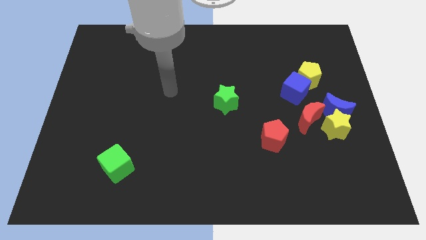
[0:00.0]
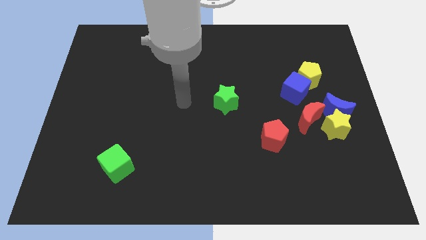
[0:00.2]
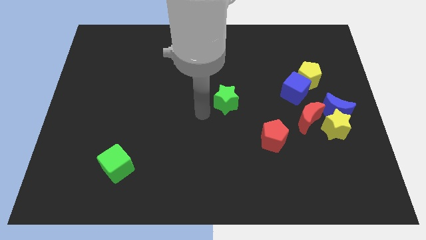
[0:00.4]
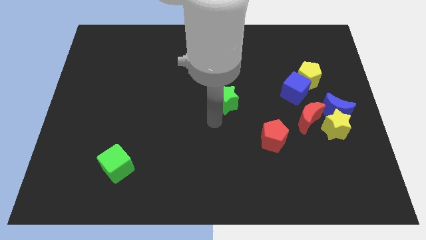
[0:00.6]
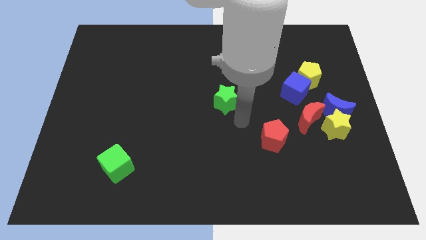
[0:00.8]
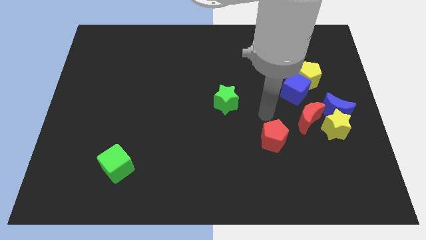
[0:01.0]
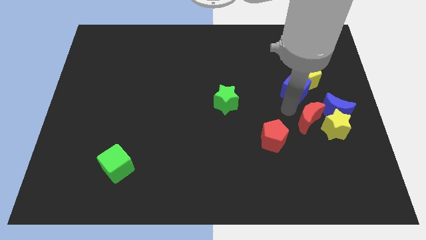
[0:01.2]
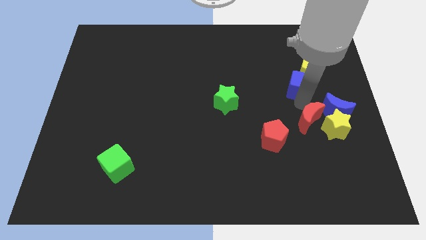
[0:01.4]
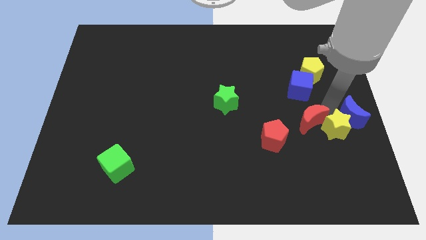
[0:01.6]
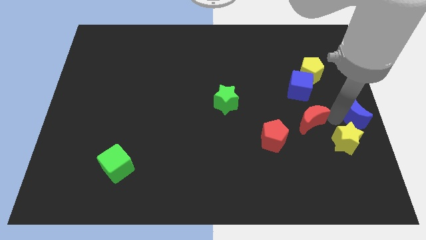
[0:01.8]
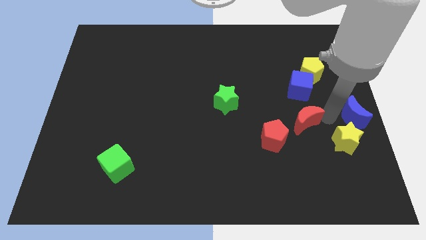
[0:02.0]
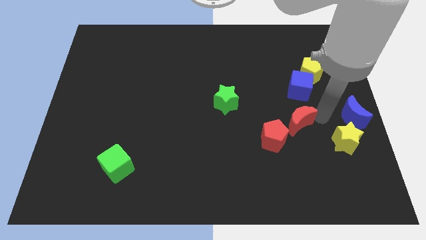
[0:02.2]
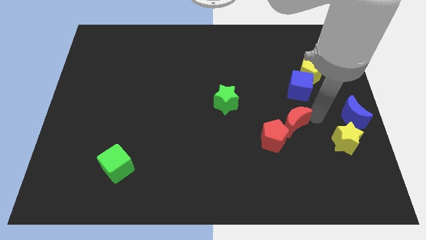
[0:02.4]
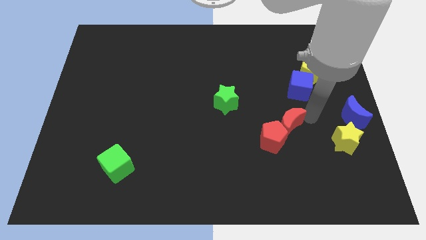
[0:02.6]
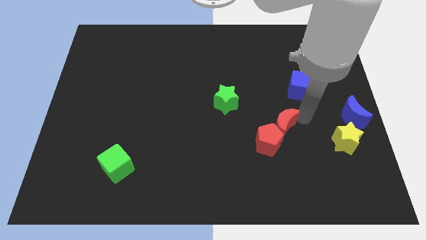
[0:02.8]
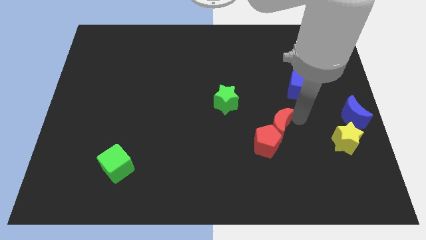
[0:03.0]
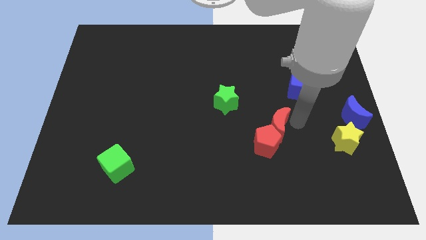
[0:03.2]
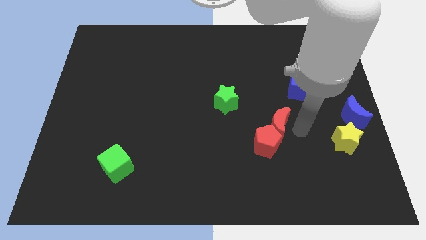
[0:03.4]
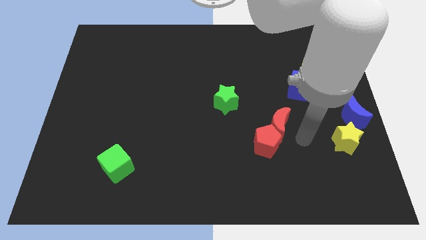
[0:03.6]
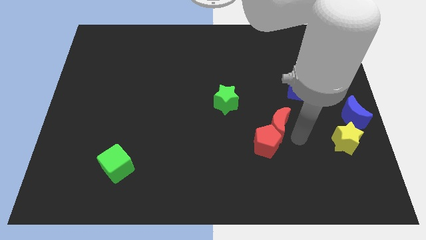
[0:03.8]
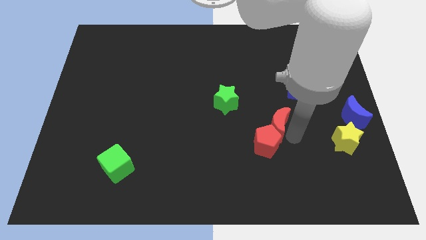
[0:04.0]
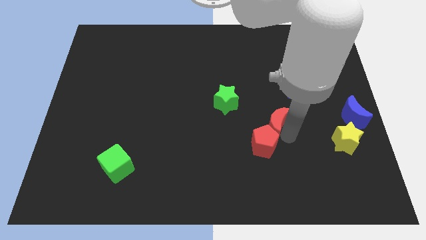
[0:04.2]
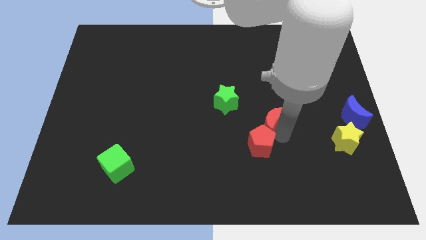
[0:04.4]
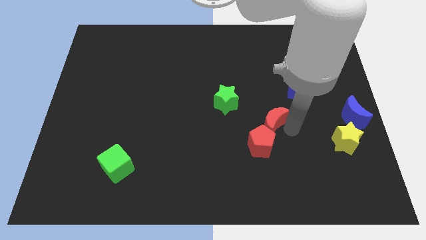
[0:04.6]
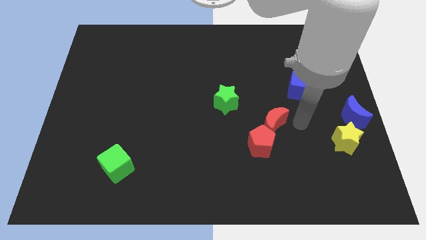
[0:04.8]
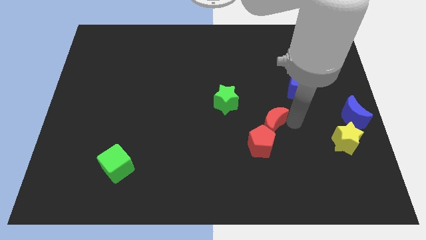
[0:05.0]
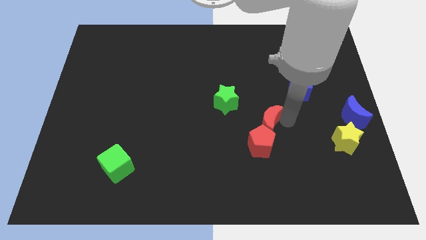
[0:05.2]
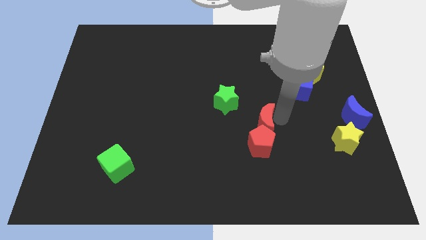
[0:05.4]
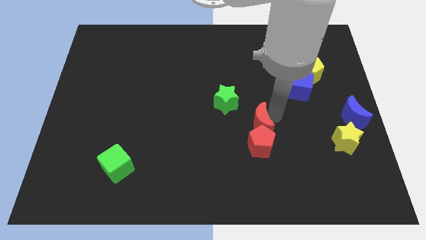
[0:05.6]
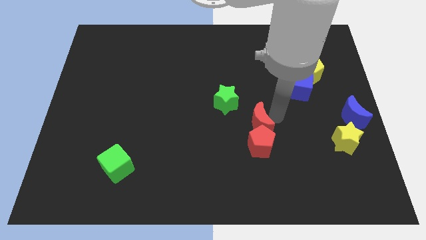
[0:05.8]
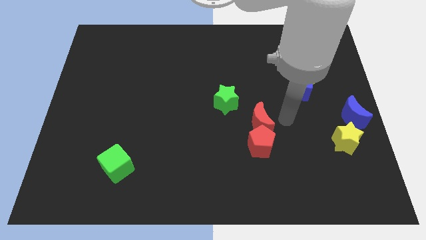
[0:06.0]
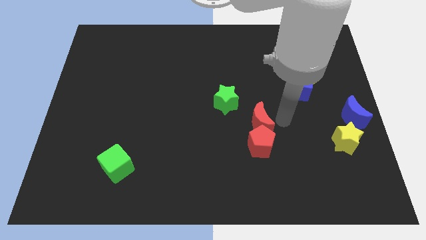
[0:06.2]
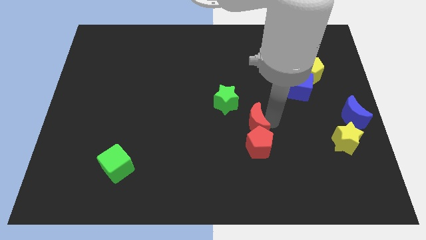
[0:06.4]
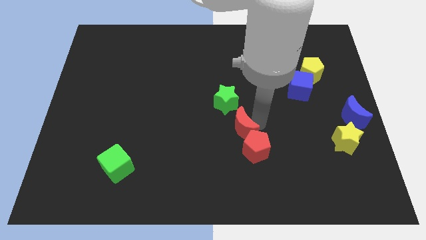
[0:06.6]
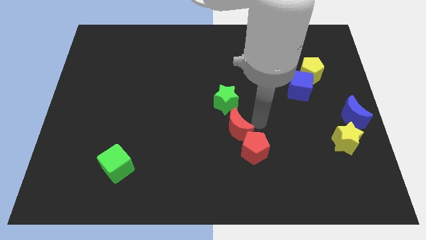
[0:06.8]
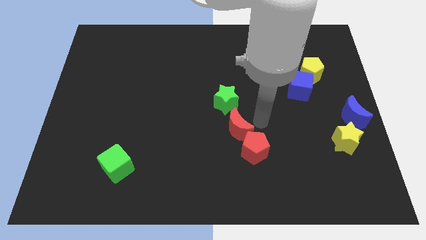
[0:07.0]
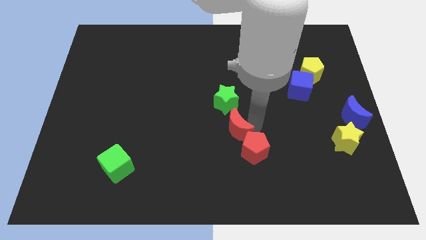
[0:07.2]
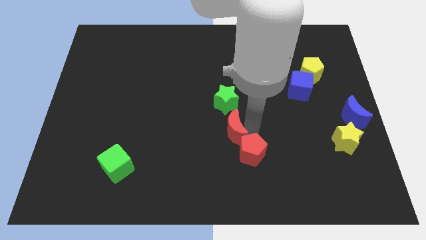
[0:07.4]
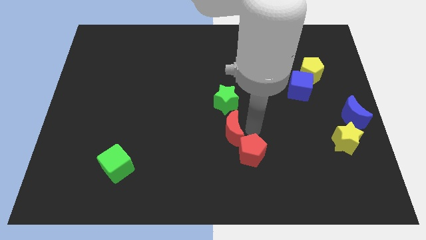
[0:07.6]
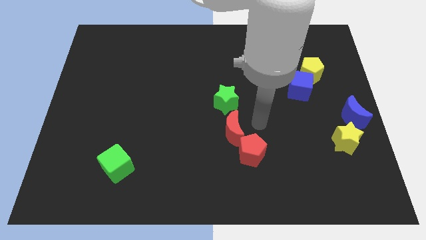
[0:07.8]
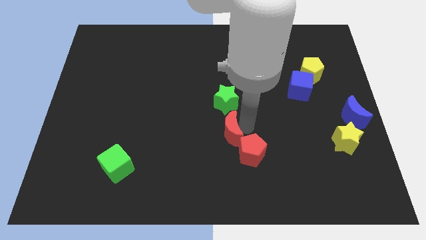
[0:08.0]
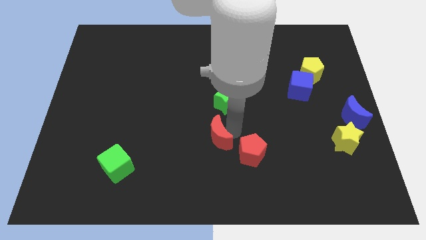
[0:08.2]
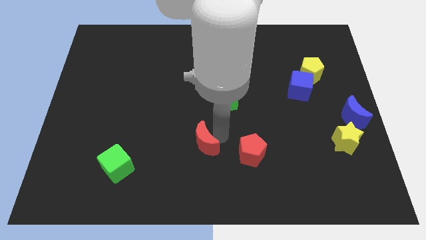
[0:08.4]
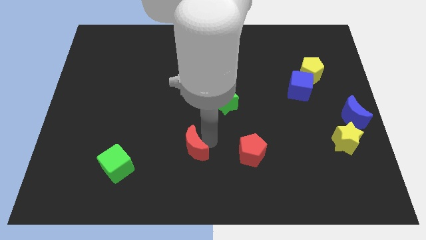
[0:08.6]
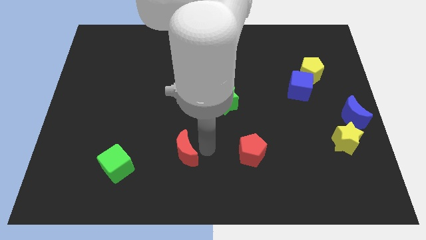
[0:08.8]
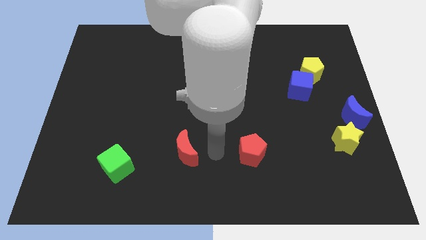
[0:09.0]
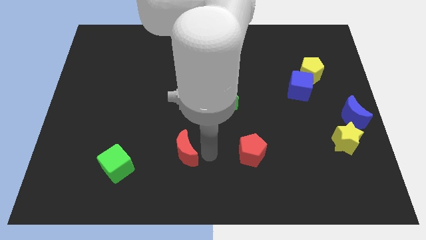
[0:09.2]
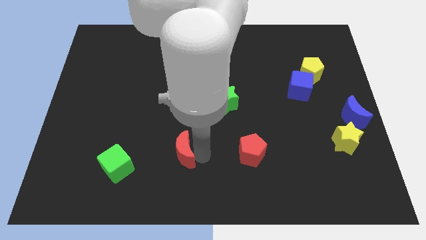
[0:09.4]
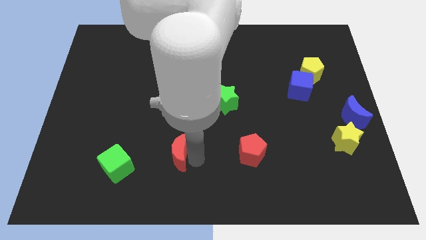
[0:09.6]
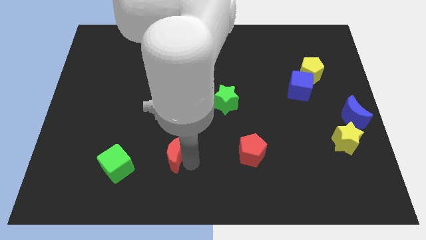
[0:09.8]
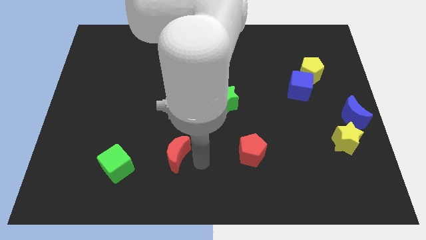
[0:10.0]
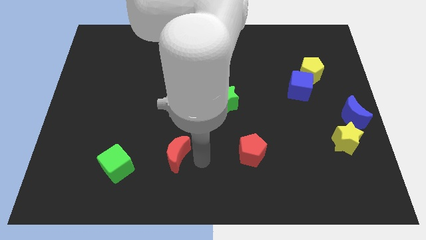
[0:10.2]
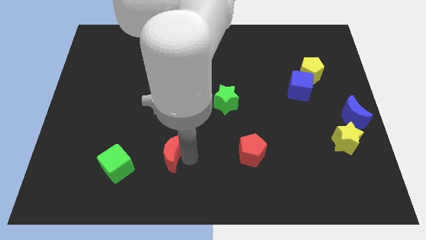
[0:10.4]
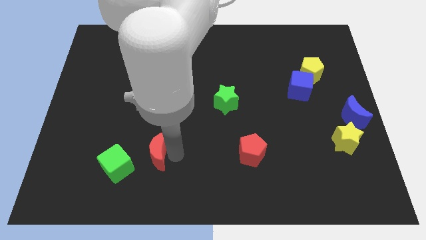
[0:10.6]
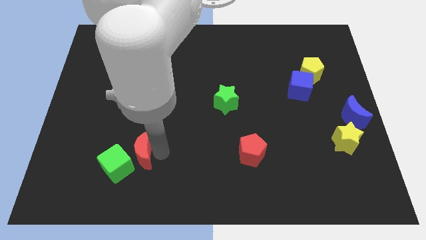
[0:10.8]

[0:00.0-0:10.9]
put the red moon to the green cube

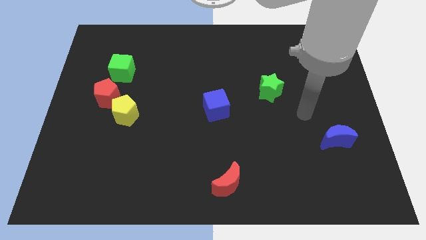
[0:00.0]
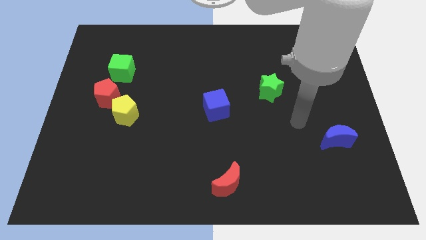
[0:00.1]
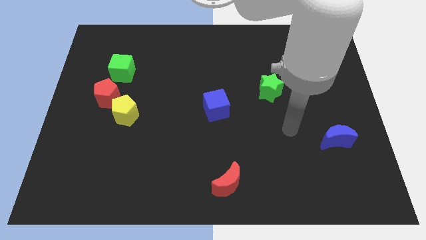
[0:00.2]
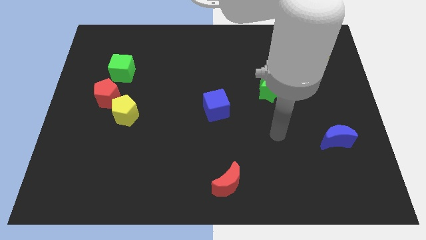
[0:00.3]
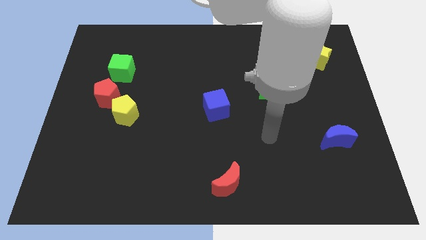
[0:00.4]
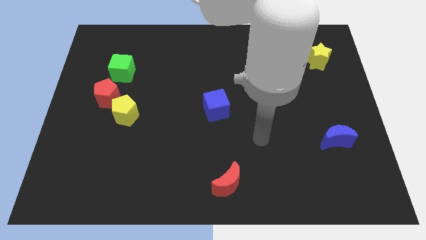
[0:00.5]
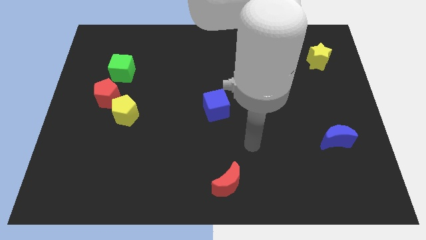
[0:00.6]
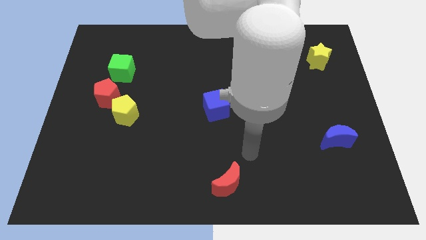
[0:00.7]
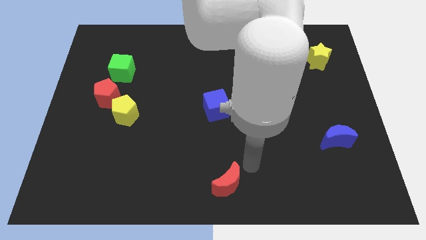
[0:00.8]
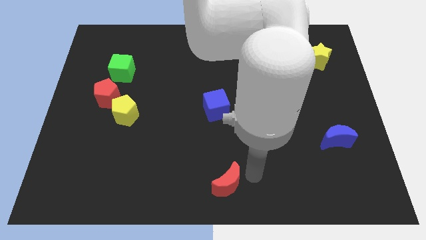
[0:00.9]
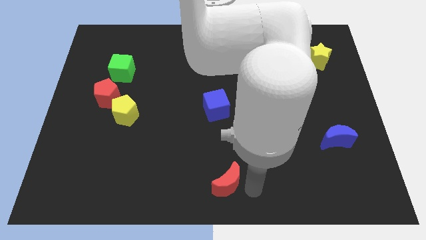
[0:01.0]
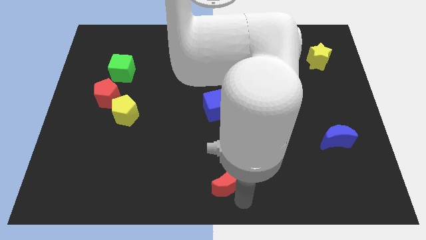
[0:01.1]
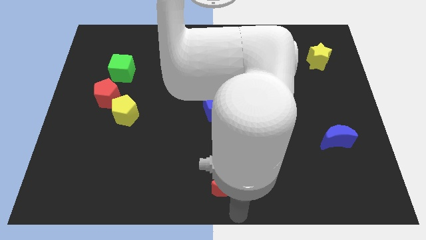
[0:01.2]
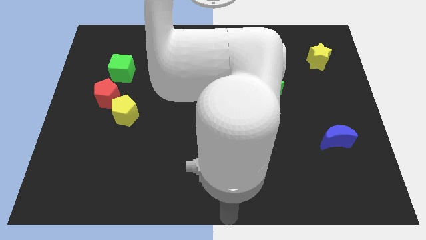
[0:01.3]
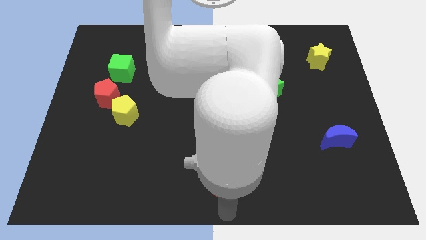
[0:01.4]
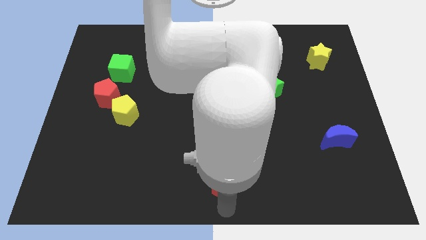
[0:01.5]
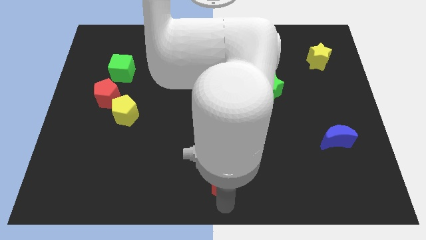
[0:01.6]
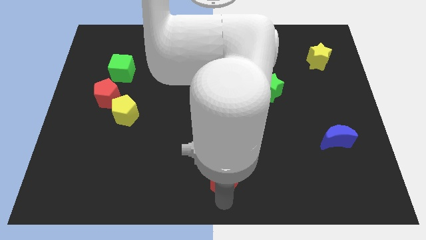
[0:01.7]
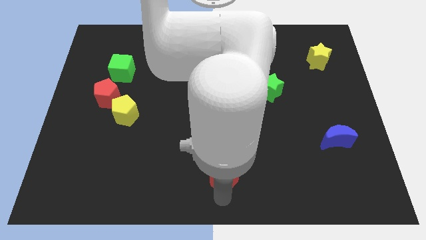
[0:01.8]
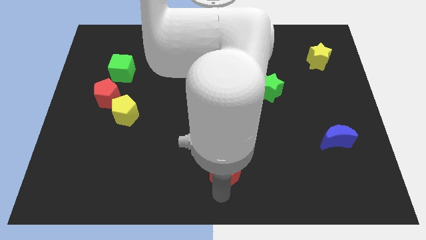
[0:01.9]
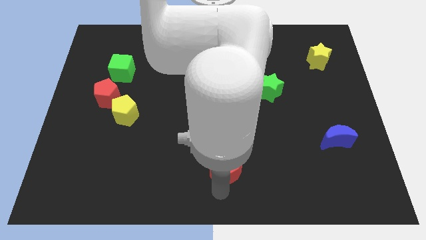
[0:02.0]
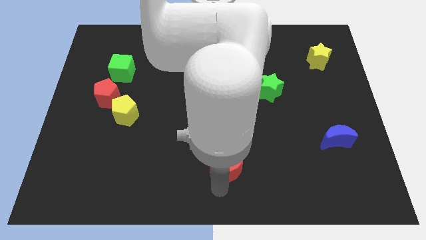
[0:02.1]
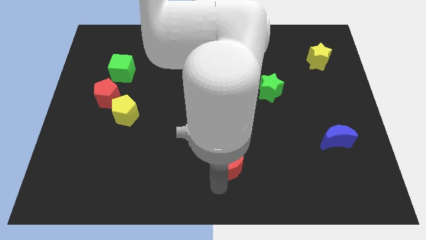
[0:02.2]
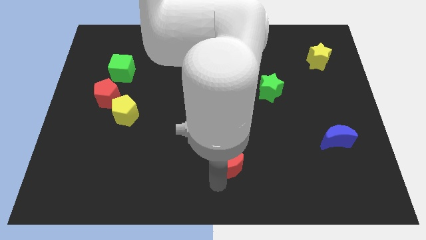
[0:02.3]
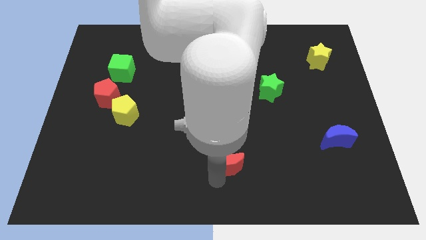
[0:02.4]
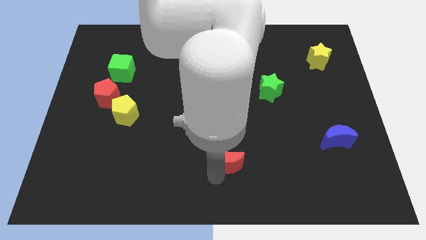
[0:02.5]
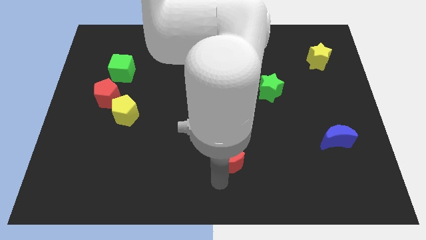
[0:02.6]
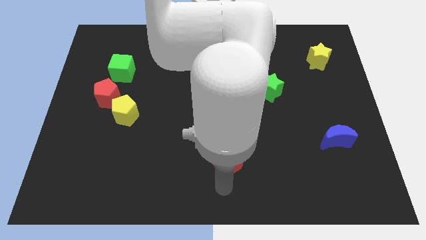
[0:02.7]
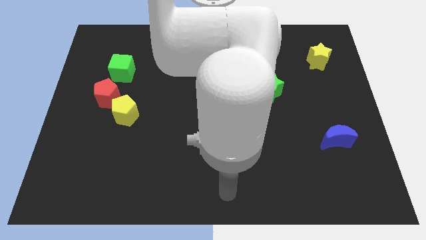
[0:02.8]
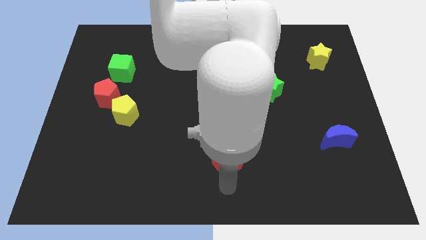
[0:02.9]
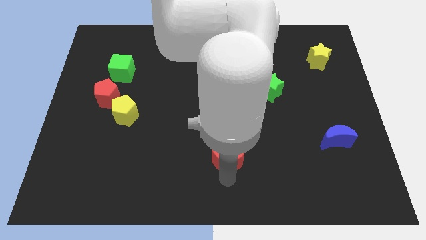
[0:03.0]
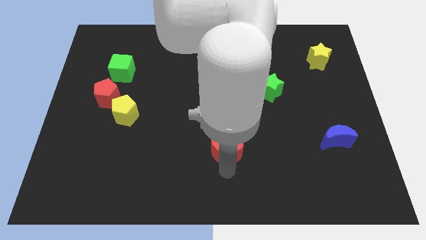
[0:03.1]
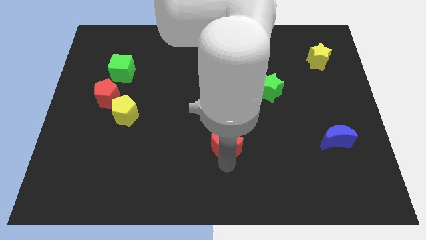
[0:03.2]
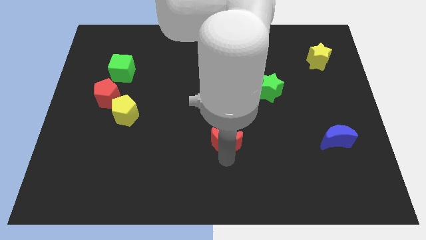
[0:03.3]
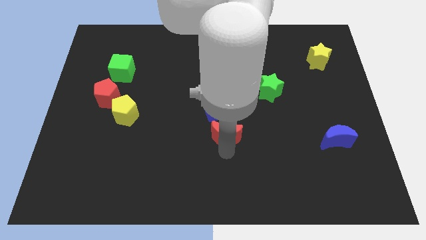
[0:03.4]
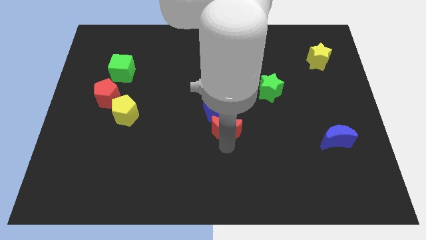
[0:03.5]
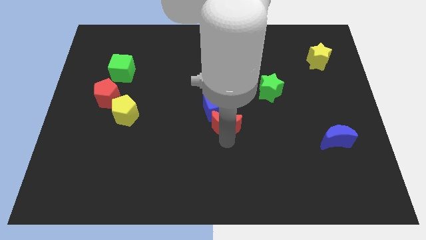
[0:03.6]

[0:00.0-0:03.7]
put the red moon next to the blue cube
